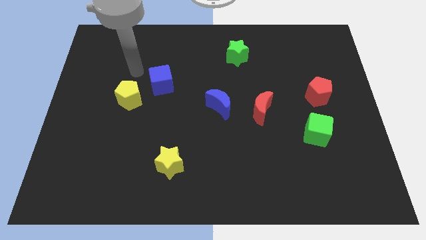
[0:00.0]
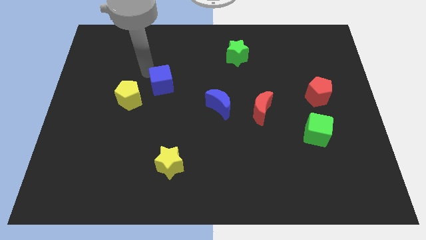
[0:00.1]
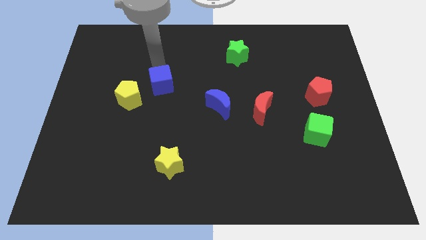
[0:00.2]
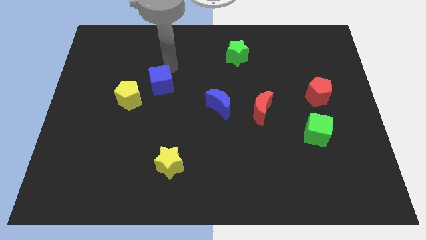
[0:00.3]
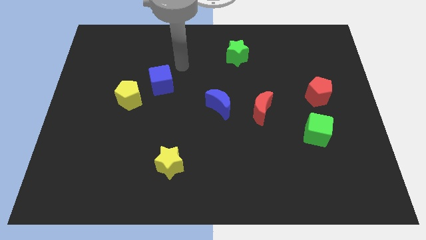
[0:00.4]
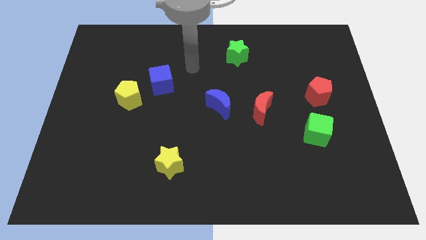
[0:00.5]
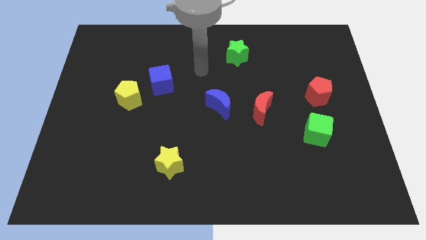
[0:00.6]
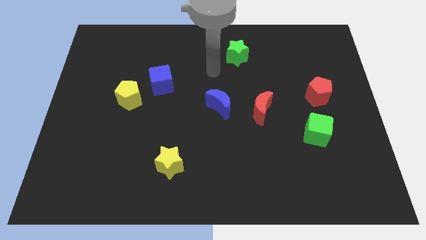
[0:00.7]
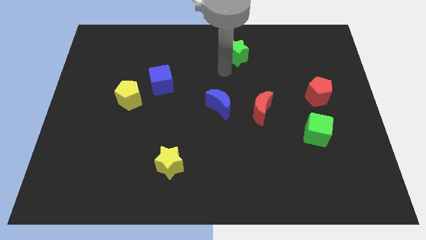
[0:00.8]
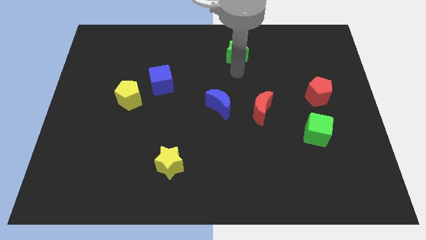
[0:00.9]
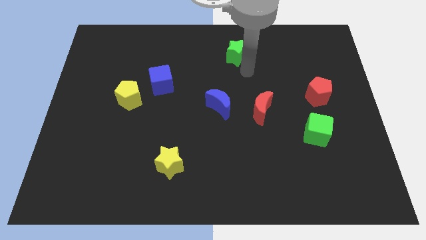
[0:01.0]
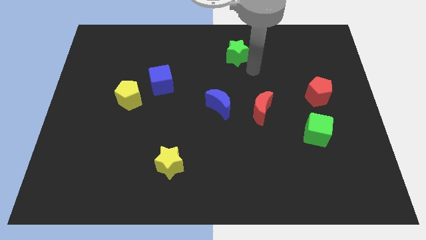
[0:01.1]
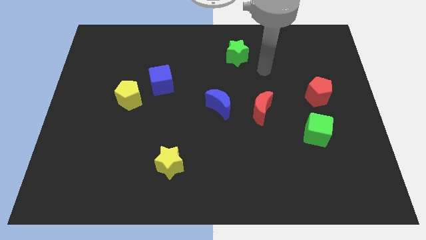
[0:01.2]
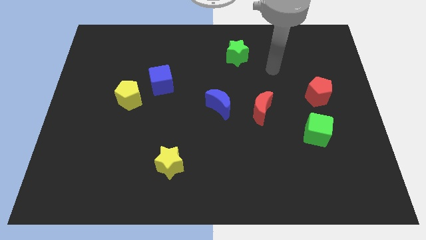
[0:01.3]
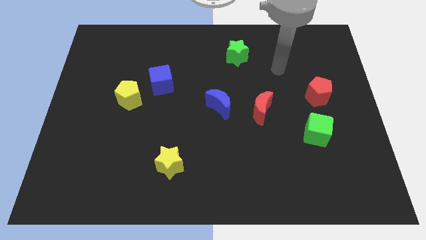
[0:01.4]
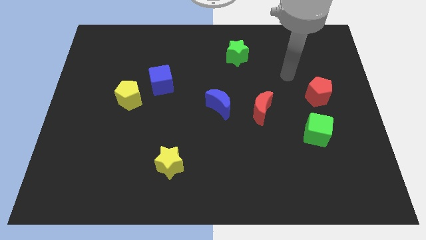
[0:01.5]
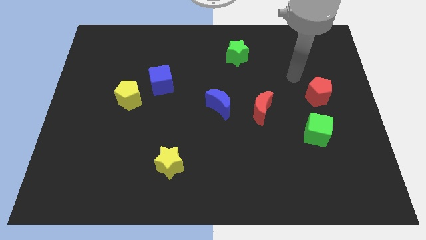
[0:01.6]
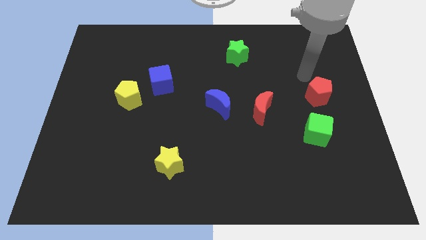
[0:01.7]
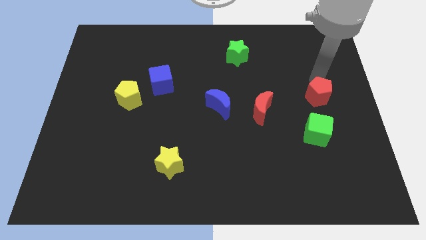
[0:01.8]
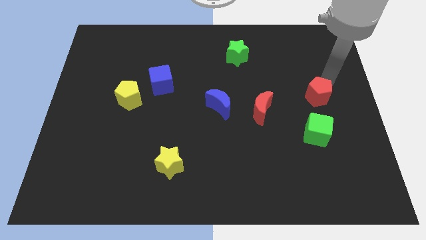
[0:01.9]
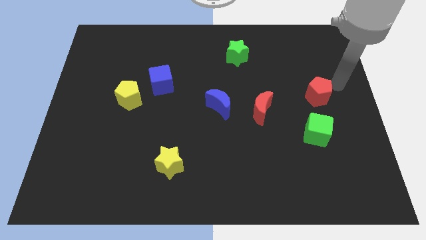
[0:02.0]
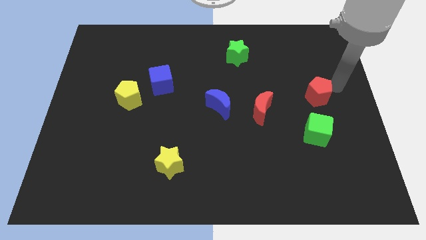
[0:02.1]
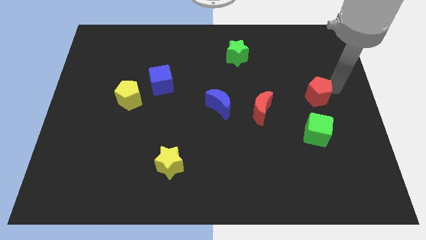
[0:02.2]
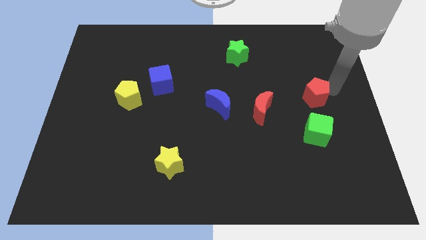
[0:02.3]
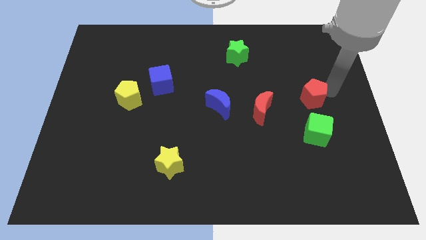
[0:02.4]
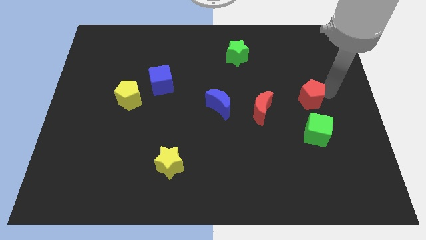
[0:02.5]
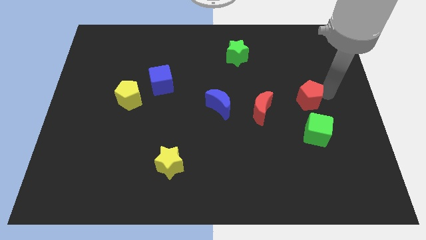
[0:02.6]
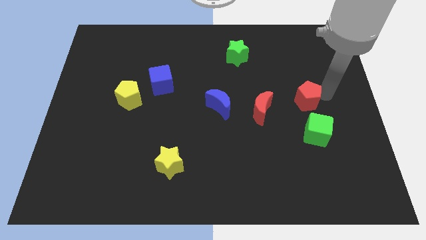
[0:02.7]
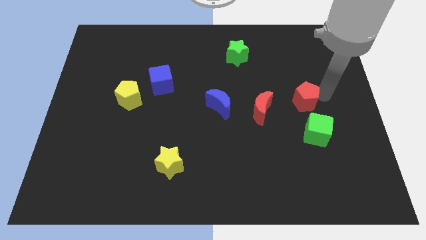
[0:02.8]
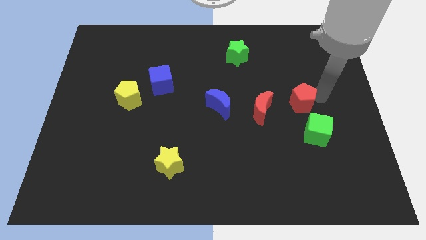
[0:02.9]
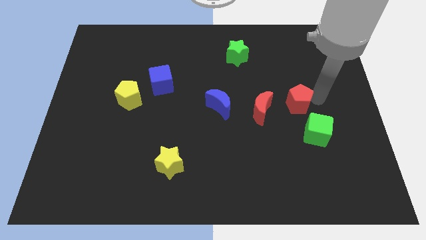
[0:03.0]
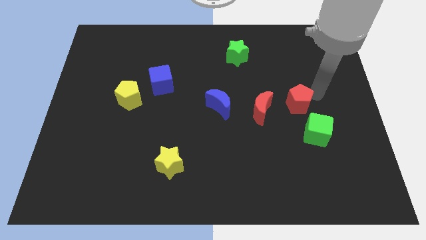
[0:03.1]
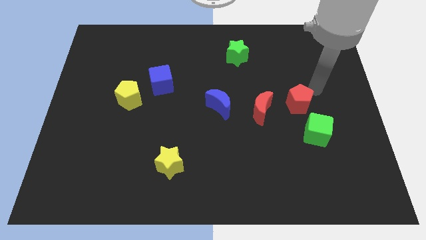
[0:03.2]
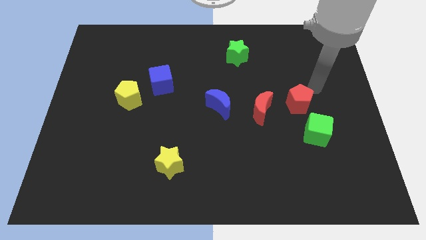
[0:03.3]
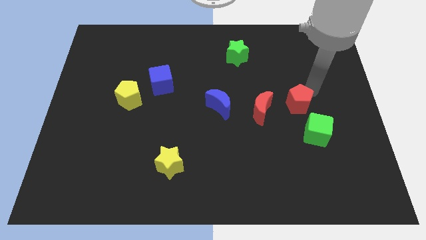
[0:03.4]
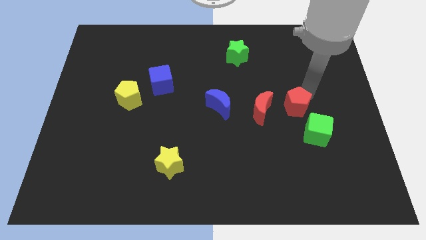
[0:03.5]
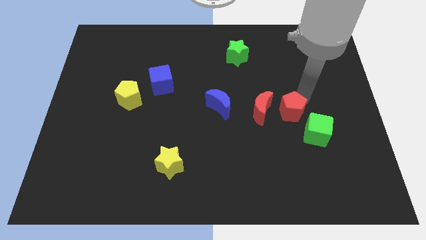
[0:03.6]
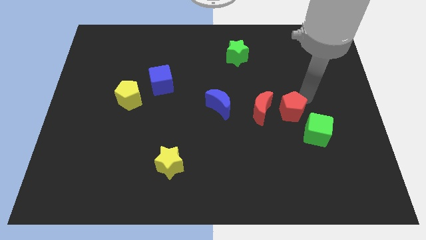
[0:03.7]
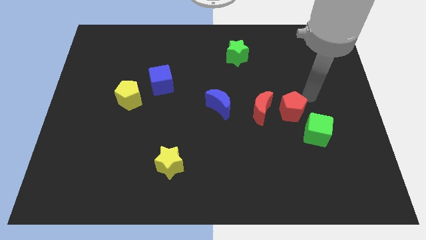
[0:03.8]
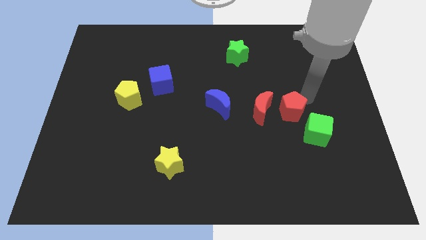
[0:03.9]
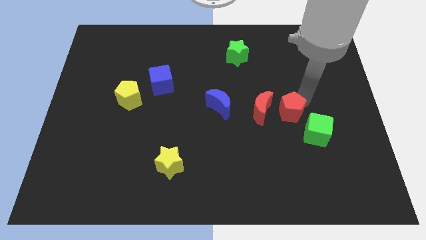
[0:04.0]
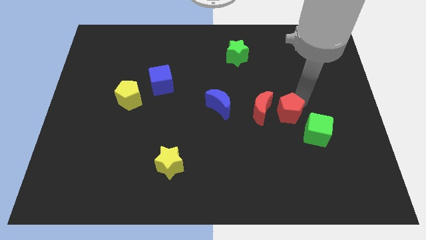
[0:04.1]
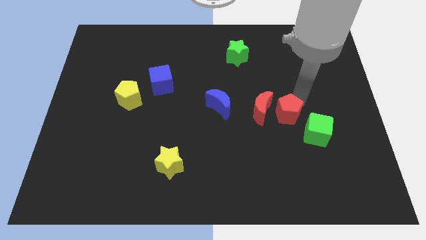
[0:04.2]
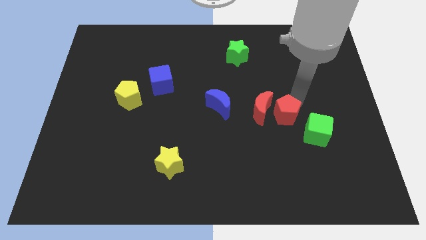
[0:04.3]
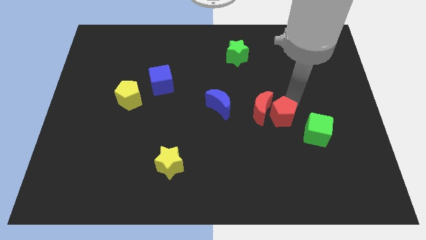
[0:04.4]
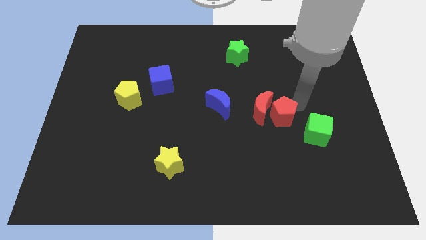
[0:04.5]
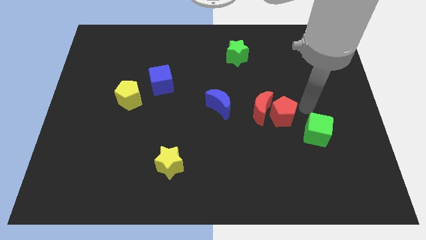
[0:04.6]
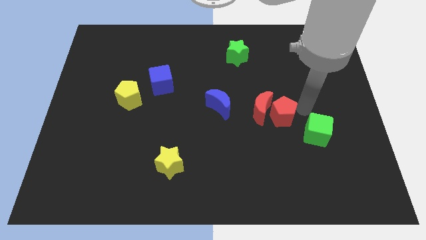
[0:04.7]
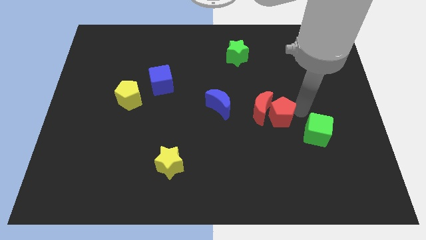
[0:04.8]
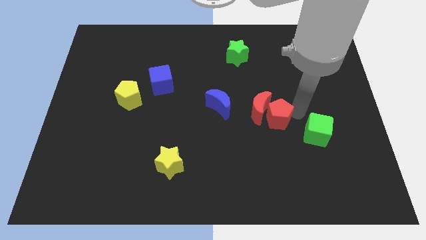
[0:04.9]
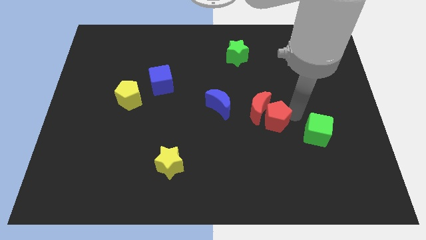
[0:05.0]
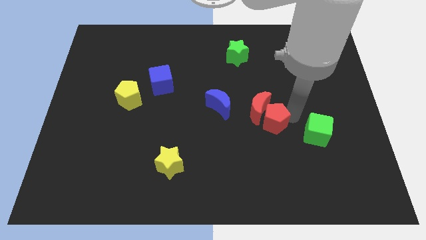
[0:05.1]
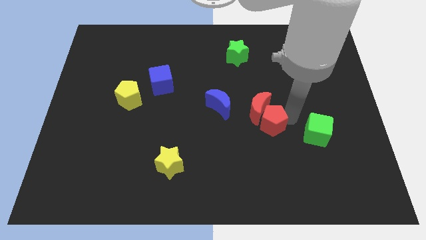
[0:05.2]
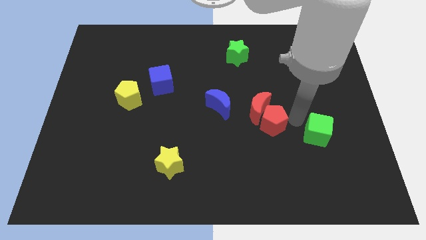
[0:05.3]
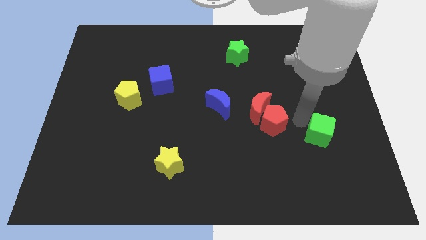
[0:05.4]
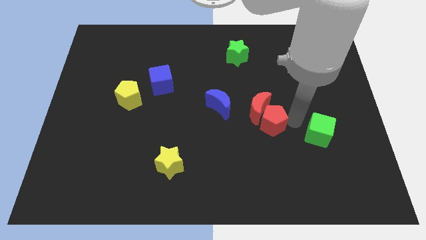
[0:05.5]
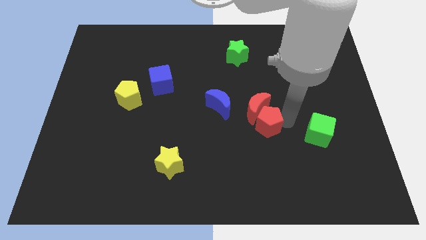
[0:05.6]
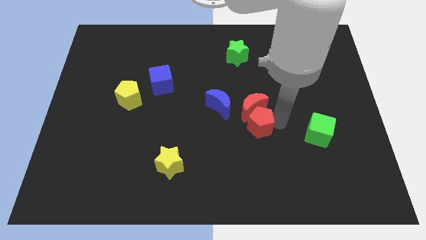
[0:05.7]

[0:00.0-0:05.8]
move the red pentagon diagonally down and to the right of the blue moon

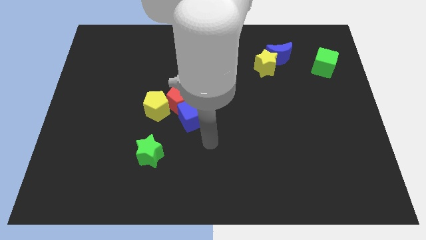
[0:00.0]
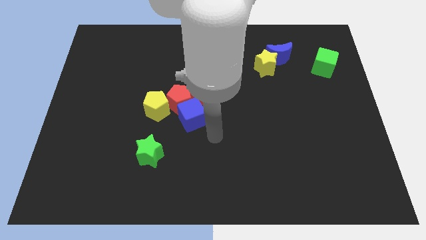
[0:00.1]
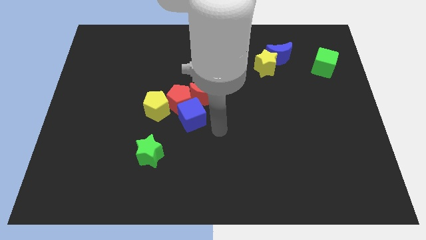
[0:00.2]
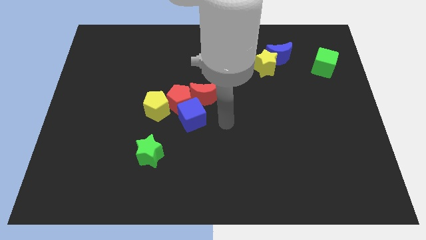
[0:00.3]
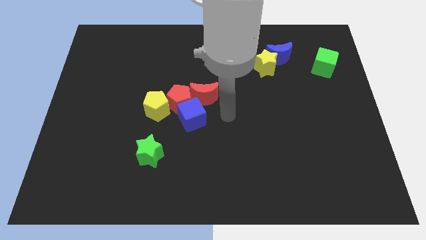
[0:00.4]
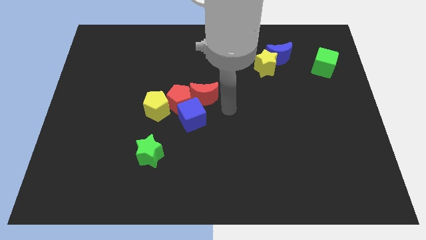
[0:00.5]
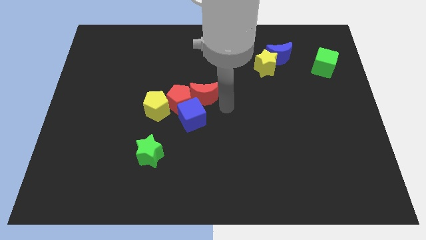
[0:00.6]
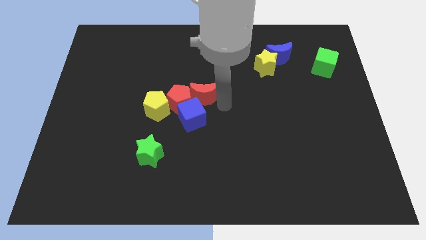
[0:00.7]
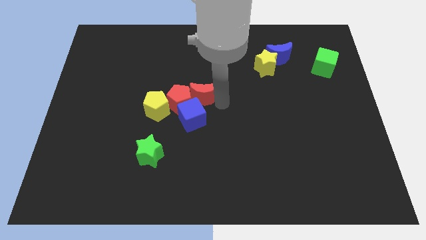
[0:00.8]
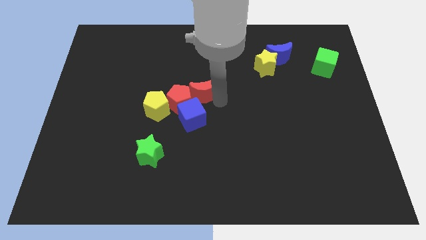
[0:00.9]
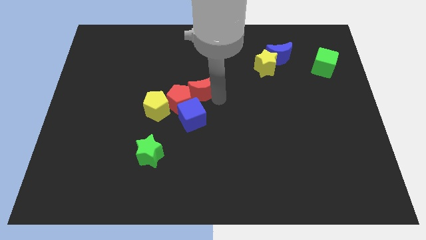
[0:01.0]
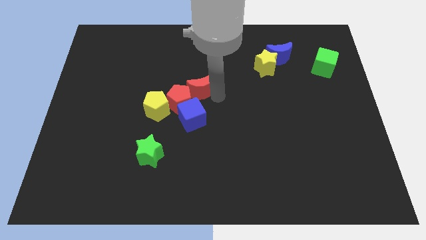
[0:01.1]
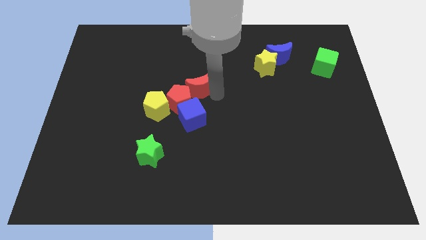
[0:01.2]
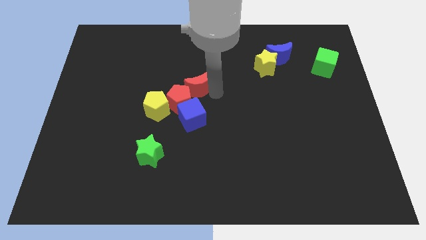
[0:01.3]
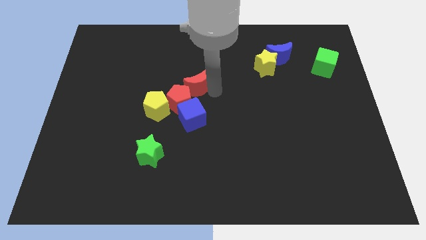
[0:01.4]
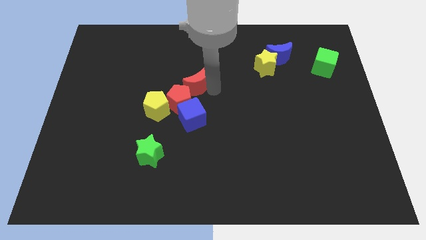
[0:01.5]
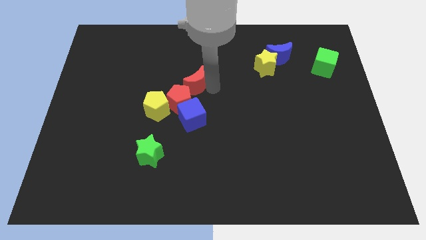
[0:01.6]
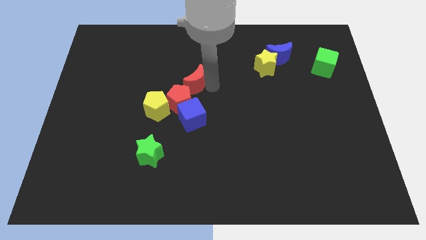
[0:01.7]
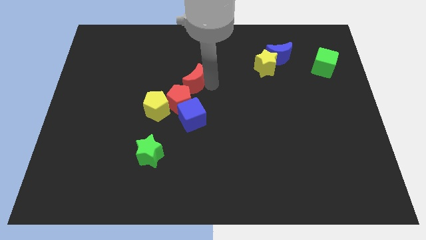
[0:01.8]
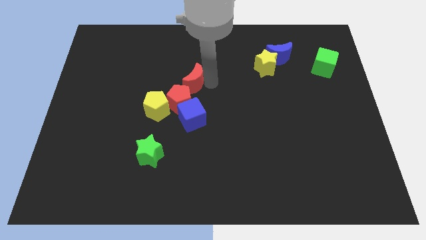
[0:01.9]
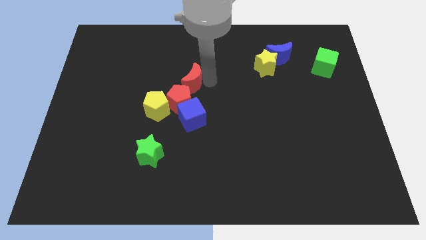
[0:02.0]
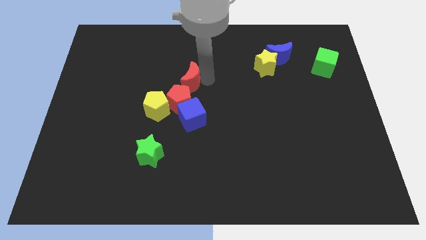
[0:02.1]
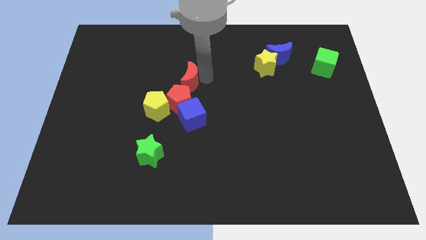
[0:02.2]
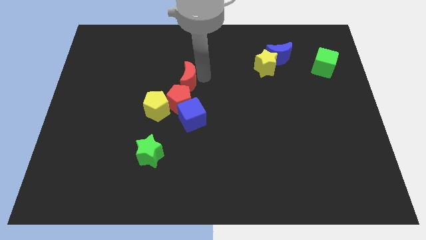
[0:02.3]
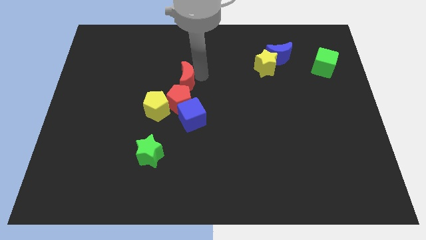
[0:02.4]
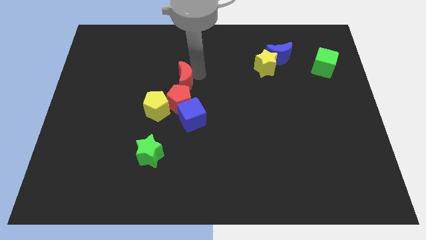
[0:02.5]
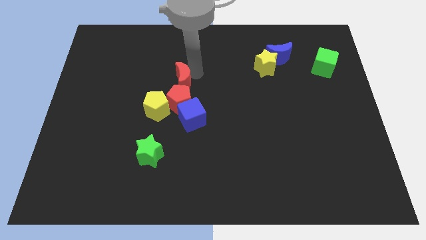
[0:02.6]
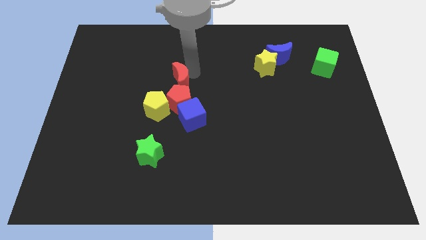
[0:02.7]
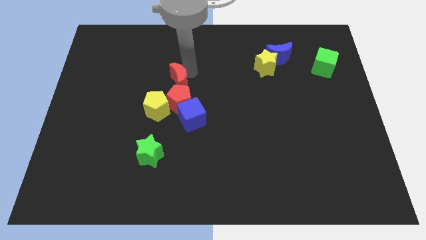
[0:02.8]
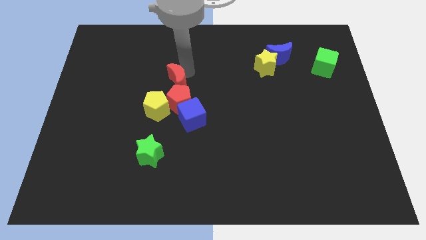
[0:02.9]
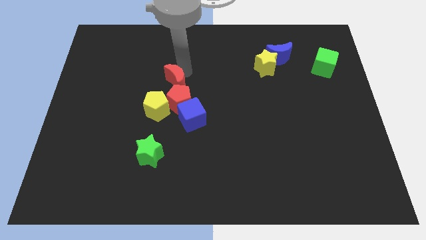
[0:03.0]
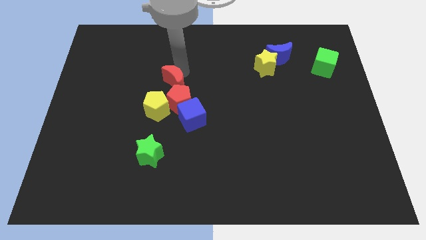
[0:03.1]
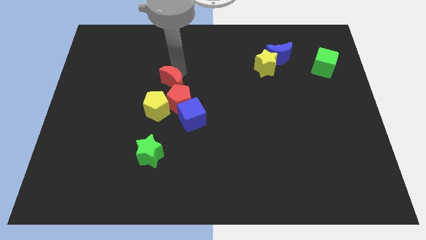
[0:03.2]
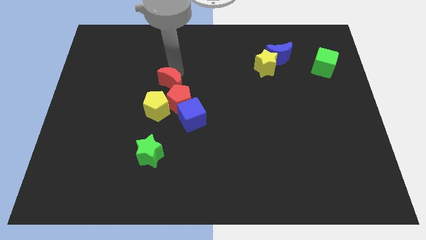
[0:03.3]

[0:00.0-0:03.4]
push the red moon to the top left side of the blue cube
